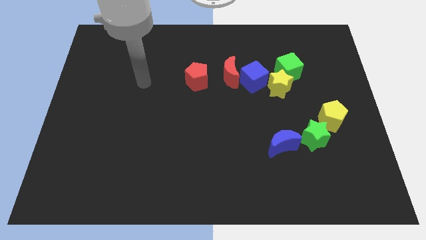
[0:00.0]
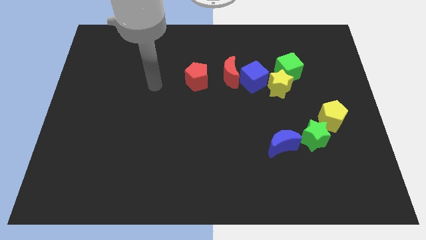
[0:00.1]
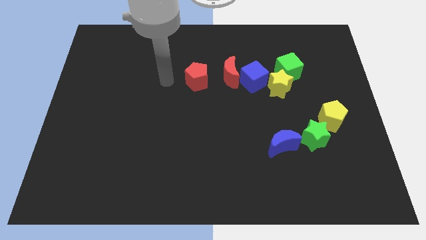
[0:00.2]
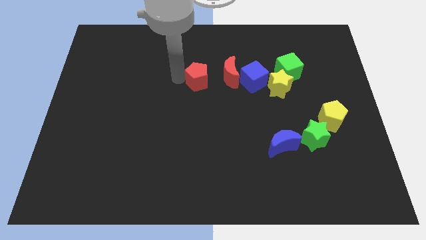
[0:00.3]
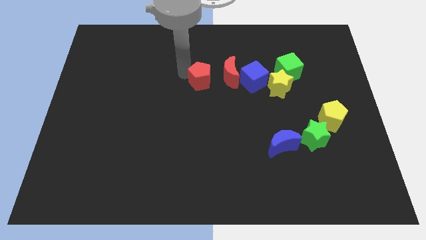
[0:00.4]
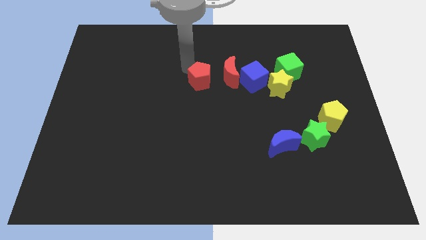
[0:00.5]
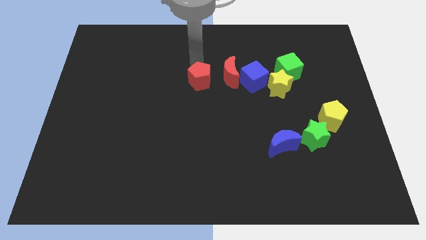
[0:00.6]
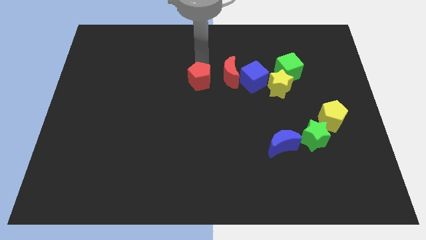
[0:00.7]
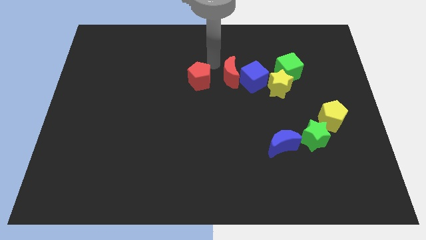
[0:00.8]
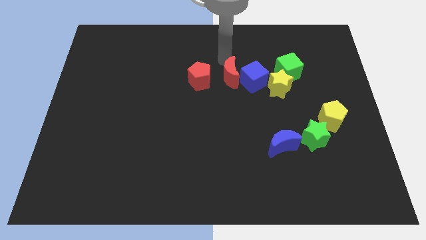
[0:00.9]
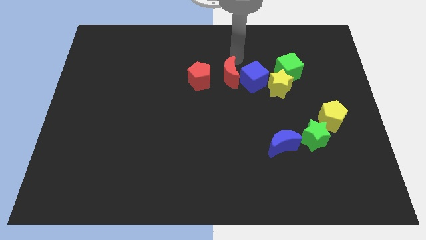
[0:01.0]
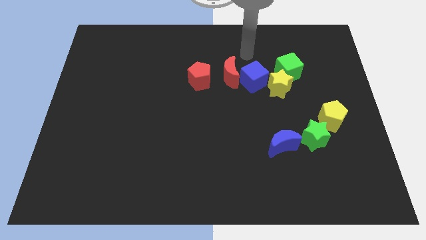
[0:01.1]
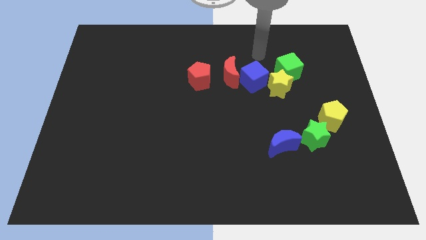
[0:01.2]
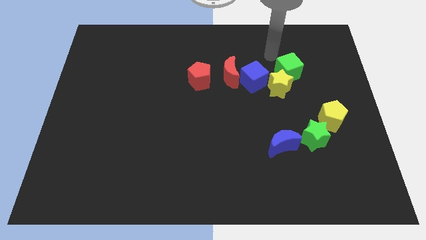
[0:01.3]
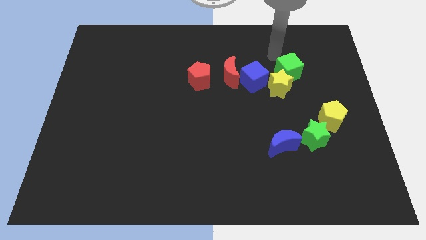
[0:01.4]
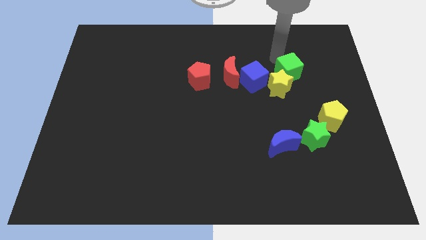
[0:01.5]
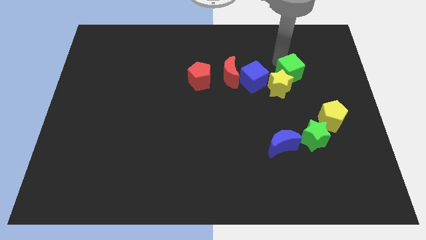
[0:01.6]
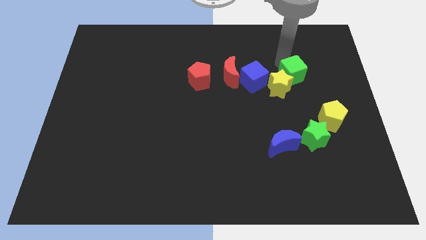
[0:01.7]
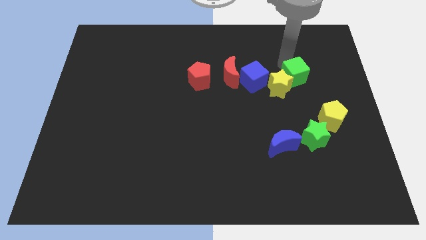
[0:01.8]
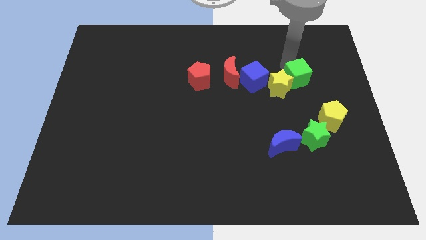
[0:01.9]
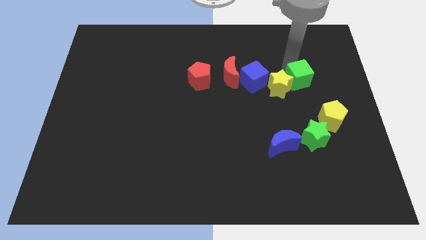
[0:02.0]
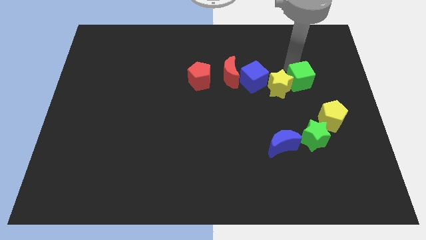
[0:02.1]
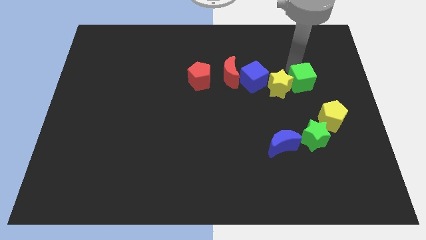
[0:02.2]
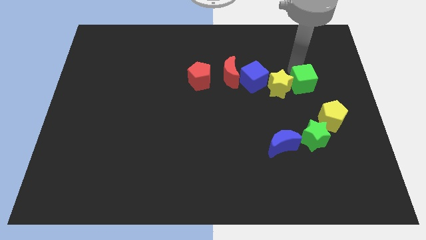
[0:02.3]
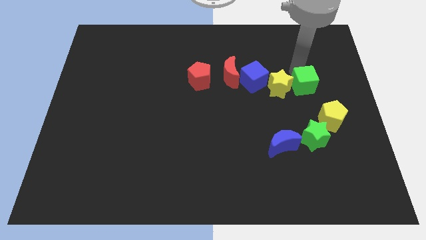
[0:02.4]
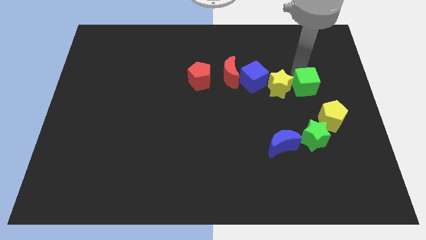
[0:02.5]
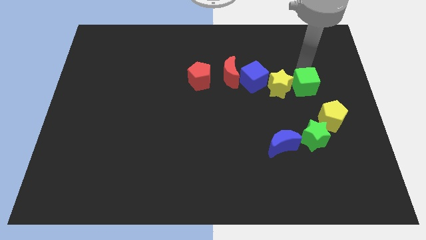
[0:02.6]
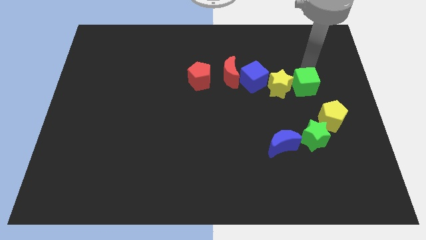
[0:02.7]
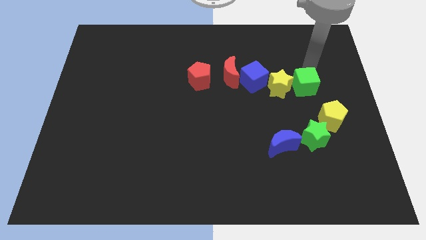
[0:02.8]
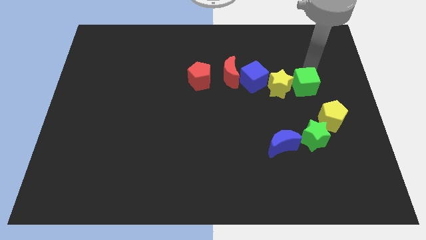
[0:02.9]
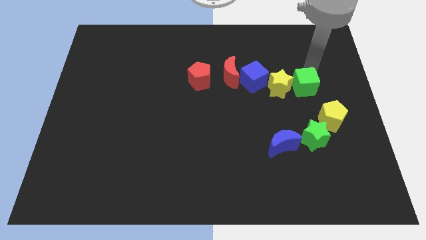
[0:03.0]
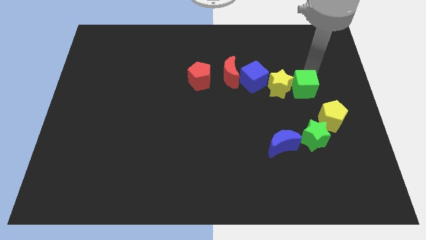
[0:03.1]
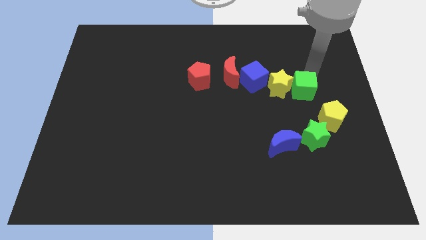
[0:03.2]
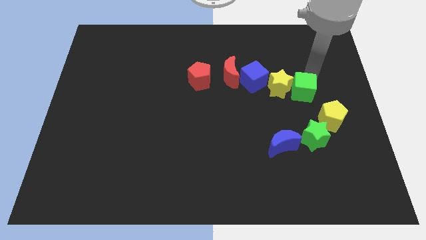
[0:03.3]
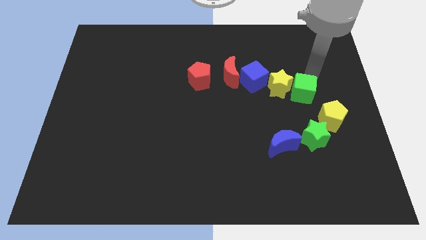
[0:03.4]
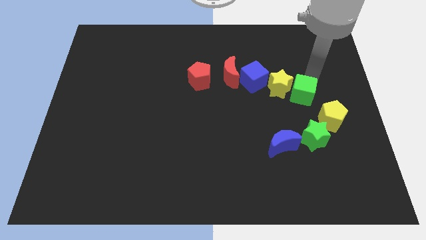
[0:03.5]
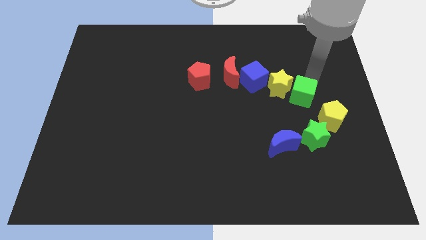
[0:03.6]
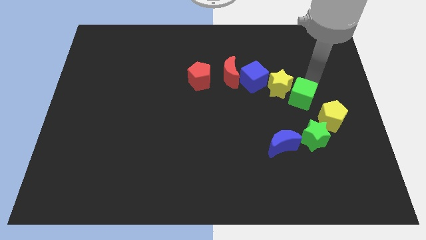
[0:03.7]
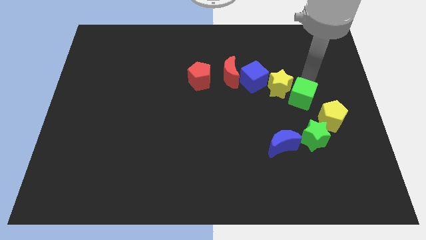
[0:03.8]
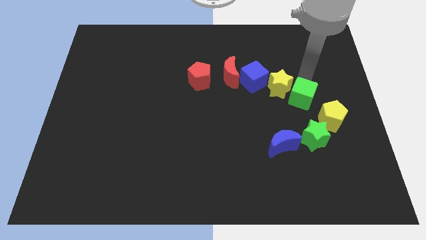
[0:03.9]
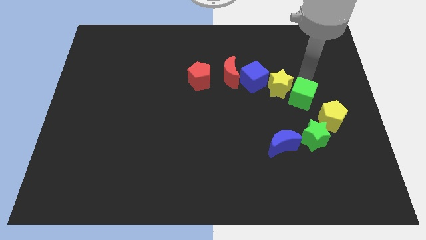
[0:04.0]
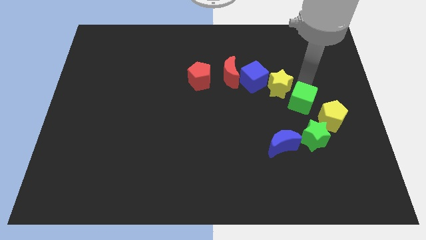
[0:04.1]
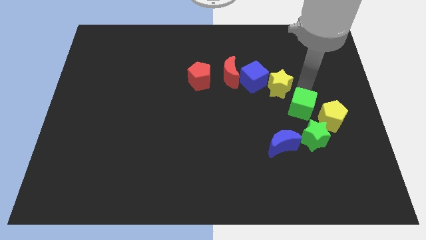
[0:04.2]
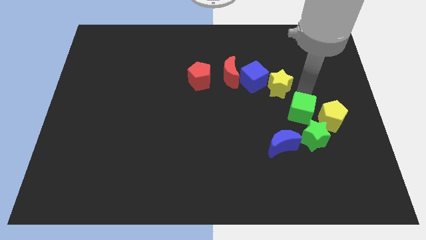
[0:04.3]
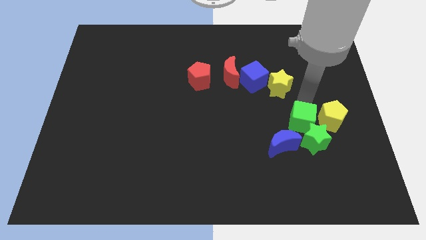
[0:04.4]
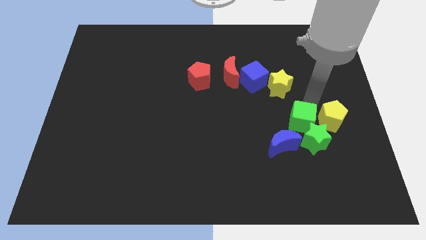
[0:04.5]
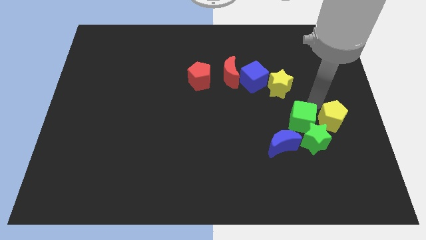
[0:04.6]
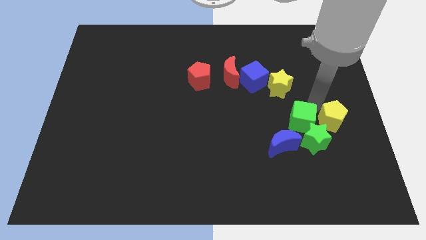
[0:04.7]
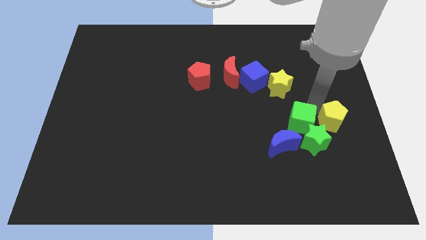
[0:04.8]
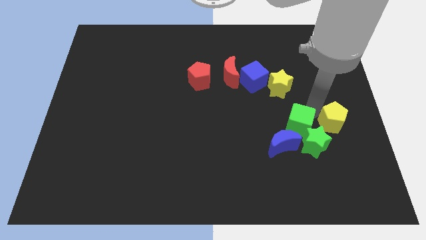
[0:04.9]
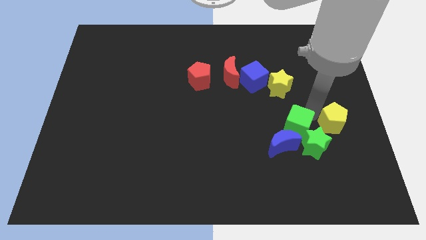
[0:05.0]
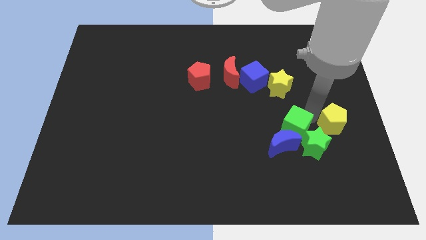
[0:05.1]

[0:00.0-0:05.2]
put the green cube next to the blue moon

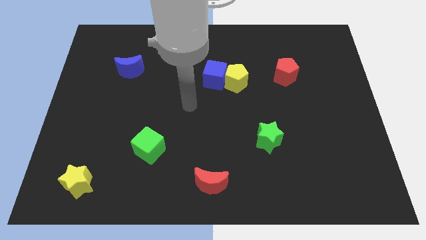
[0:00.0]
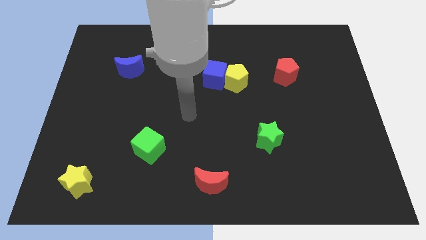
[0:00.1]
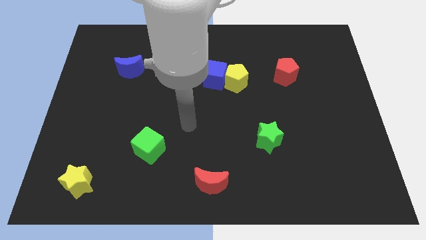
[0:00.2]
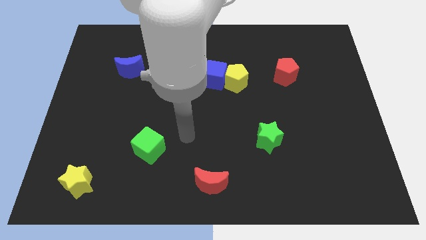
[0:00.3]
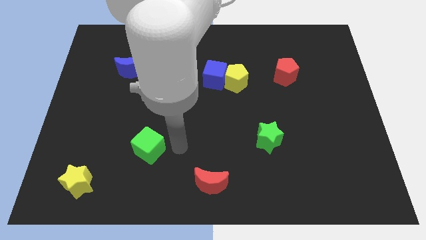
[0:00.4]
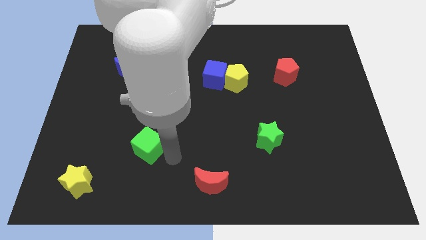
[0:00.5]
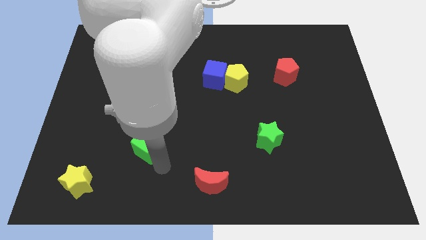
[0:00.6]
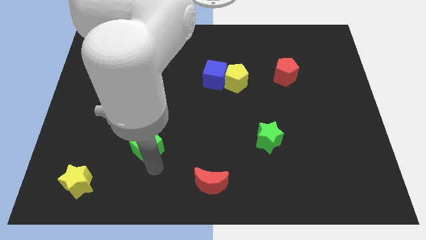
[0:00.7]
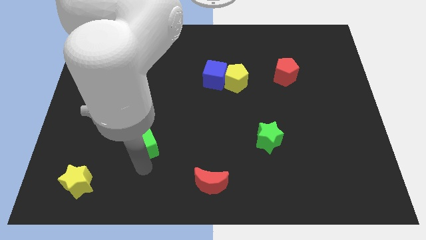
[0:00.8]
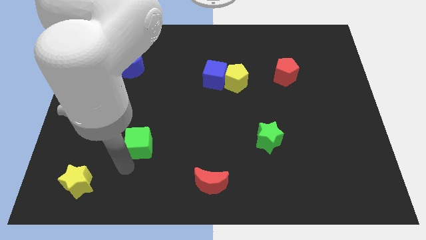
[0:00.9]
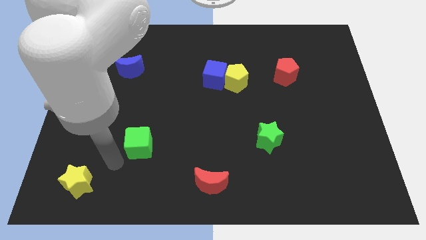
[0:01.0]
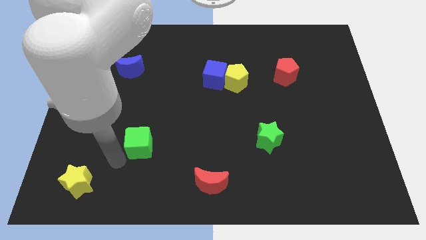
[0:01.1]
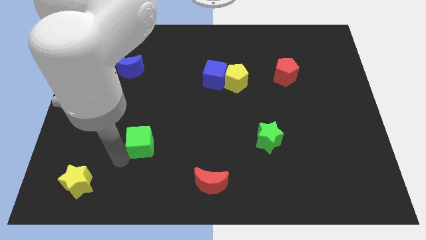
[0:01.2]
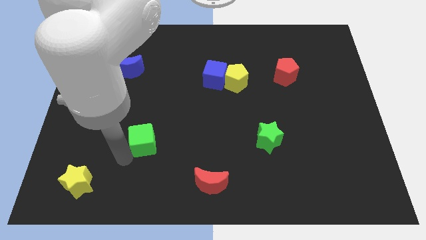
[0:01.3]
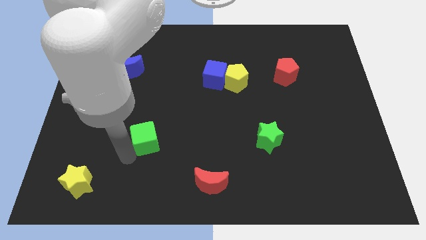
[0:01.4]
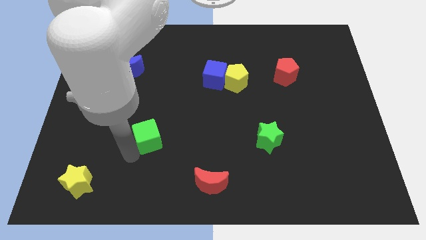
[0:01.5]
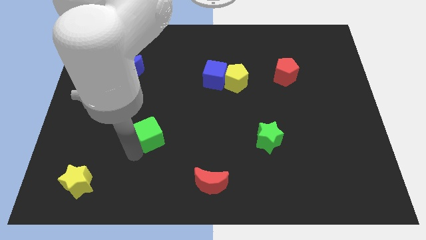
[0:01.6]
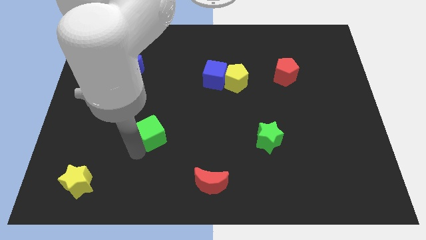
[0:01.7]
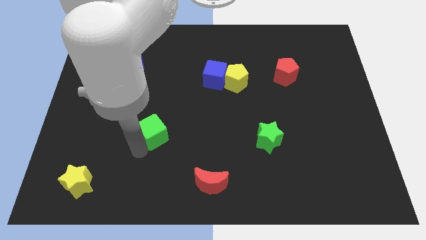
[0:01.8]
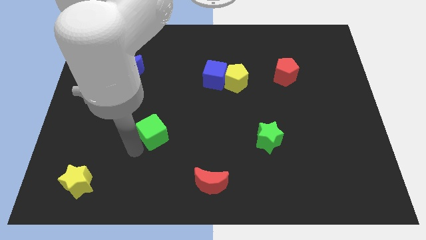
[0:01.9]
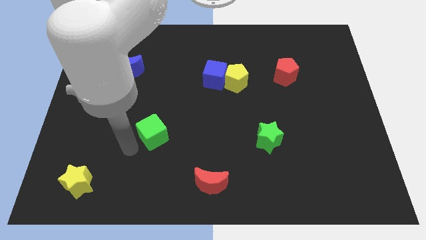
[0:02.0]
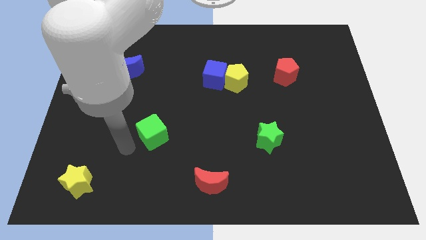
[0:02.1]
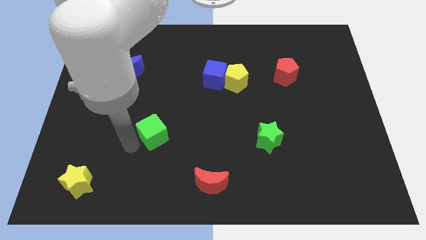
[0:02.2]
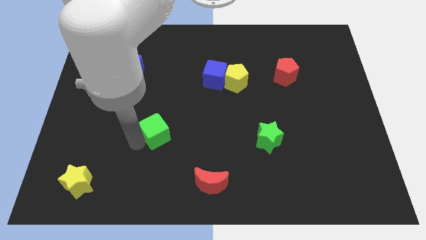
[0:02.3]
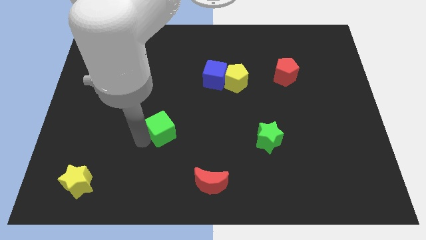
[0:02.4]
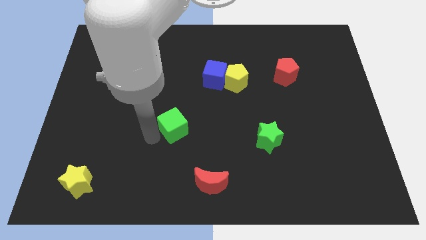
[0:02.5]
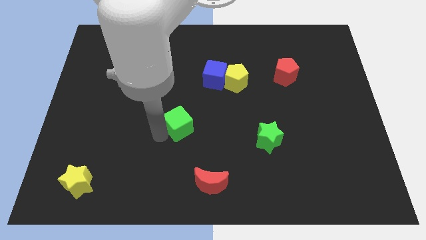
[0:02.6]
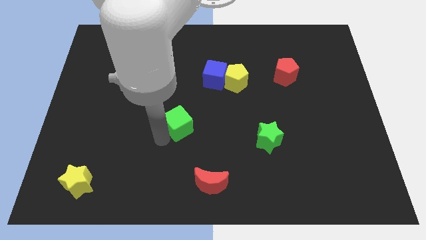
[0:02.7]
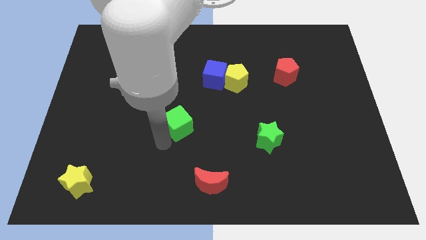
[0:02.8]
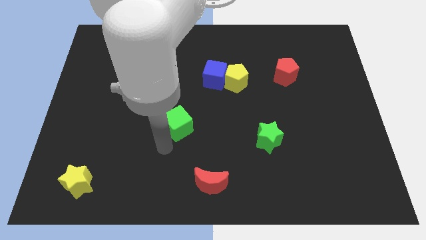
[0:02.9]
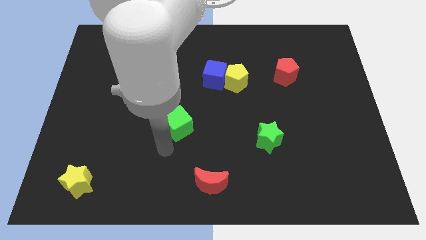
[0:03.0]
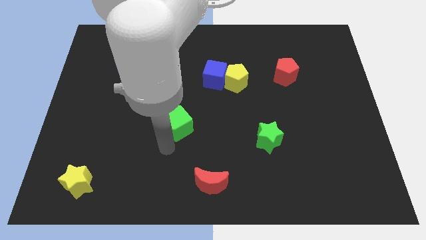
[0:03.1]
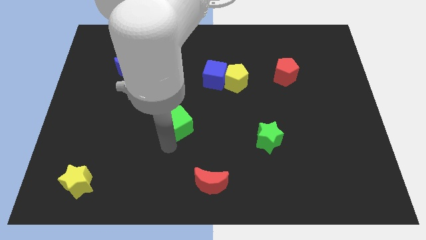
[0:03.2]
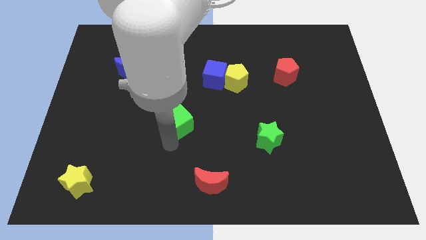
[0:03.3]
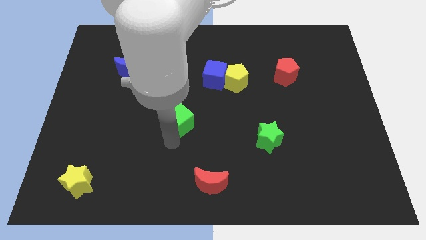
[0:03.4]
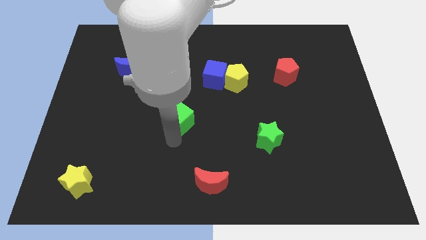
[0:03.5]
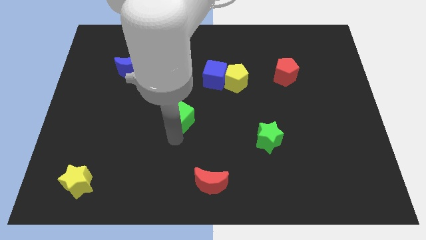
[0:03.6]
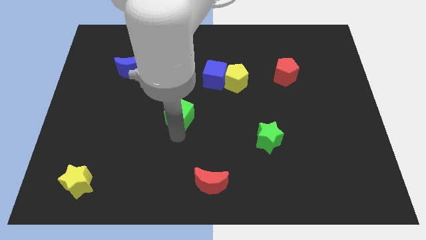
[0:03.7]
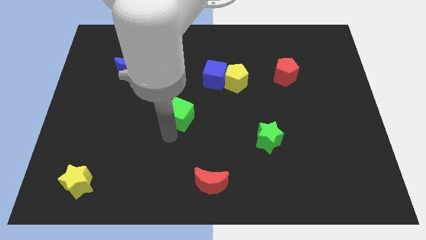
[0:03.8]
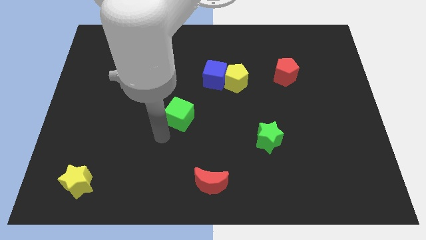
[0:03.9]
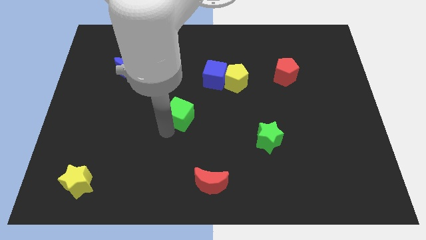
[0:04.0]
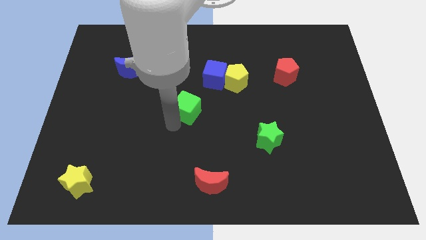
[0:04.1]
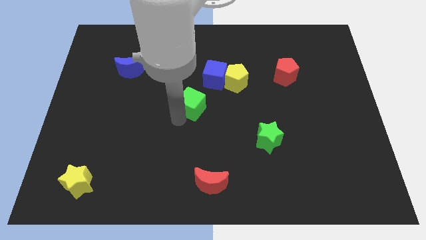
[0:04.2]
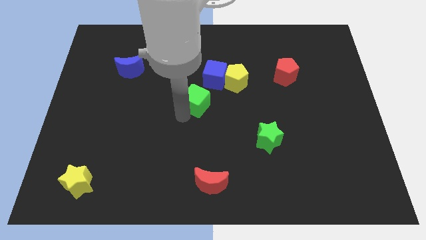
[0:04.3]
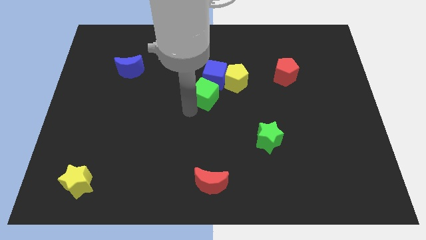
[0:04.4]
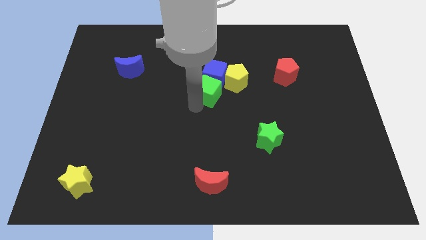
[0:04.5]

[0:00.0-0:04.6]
push the green cube next to the blue cube
